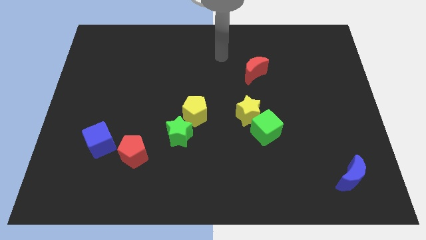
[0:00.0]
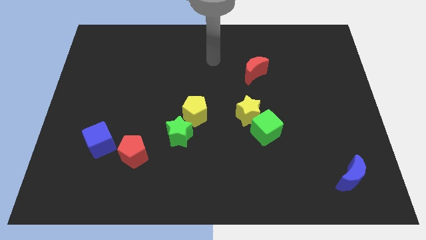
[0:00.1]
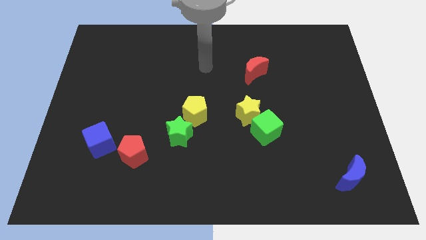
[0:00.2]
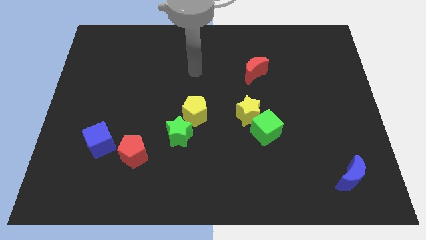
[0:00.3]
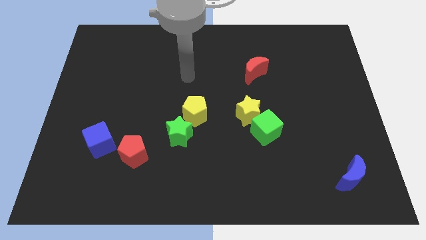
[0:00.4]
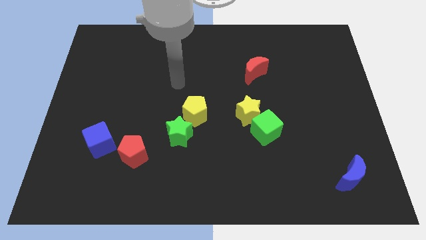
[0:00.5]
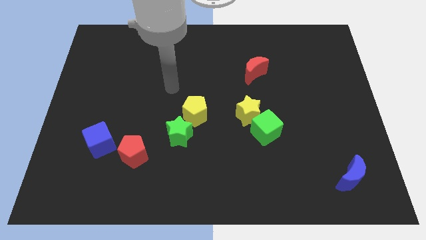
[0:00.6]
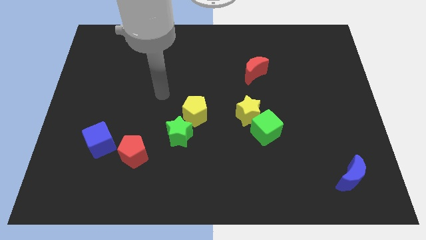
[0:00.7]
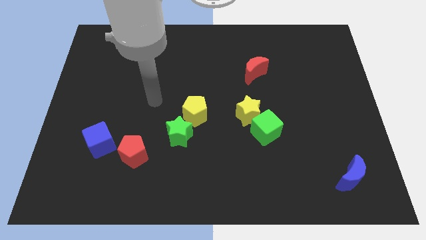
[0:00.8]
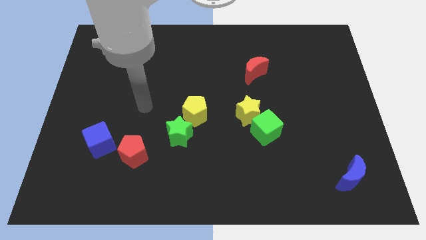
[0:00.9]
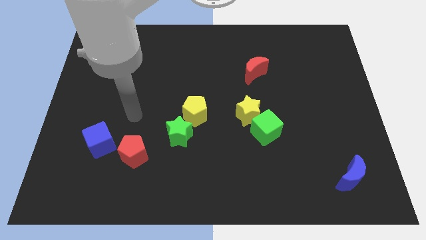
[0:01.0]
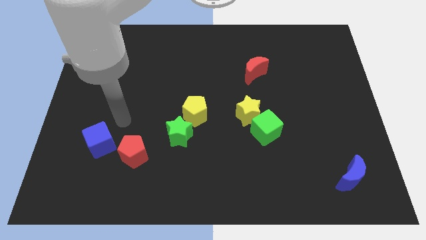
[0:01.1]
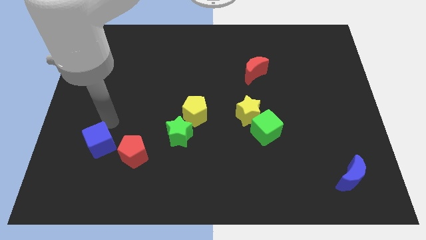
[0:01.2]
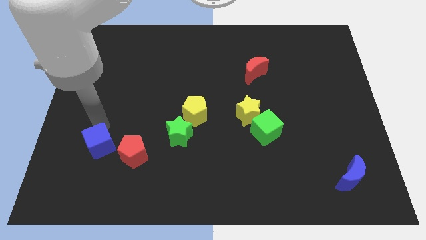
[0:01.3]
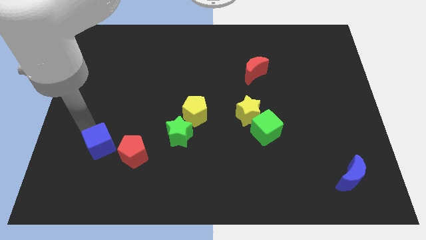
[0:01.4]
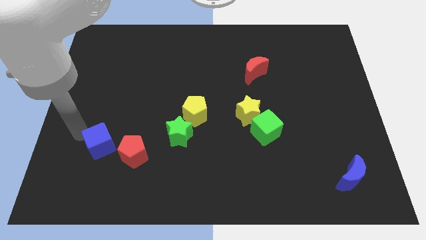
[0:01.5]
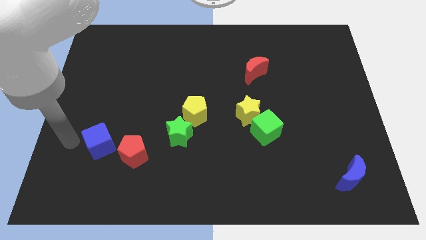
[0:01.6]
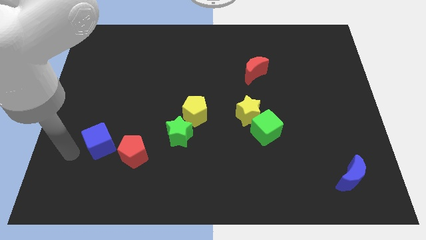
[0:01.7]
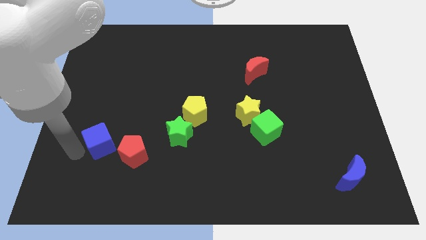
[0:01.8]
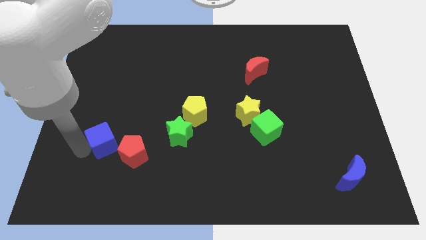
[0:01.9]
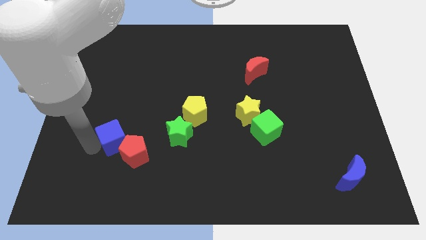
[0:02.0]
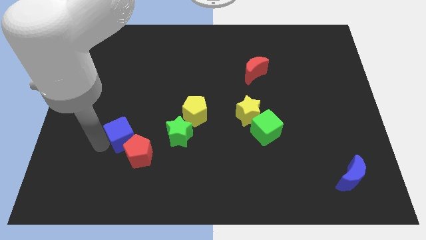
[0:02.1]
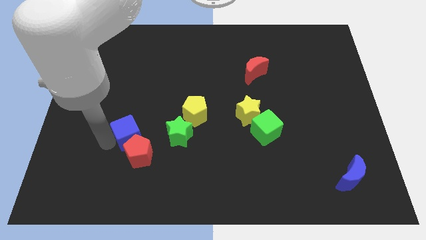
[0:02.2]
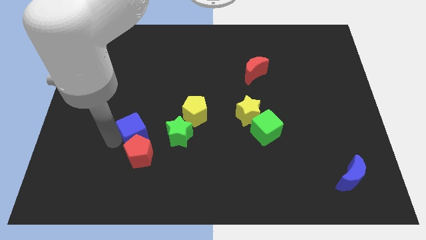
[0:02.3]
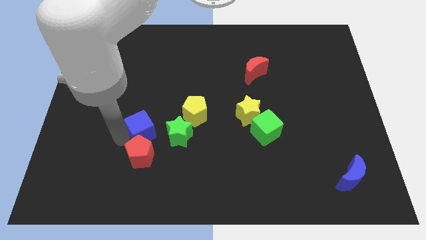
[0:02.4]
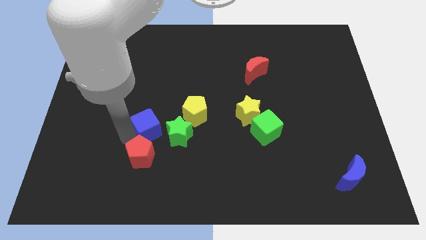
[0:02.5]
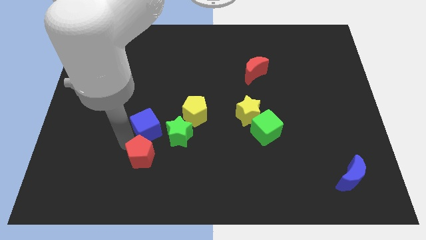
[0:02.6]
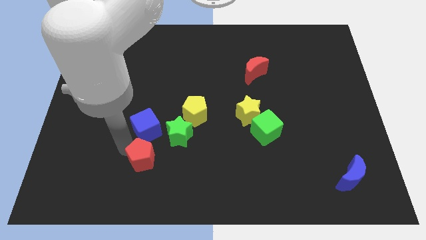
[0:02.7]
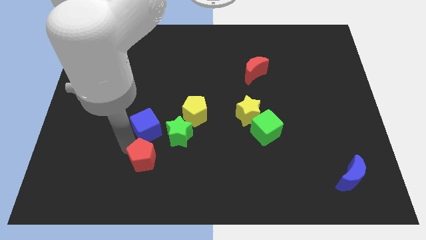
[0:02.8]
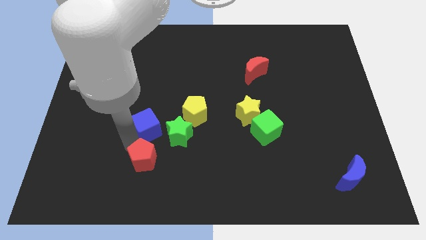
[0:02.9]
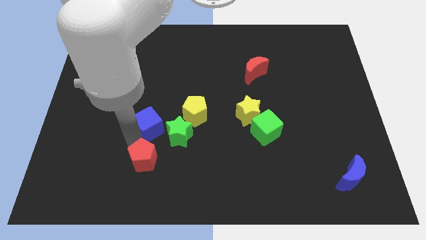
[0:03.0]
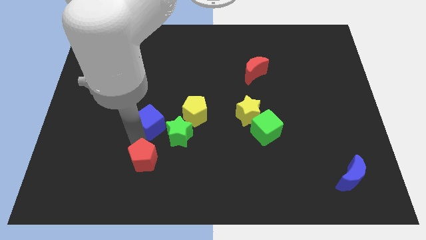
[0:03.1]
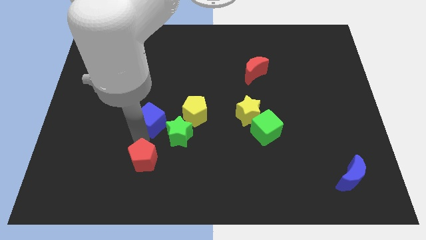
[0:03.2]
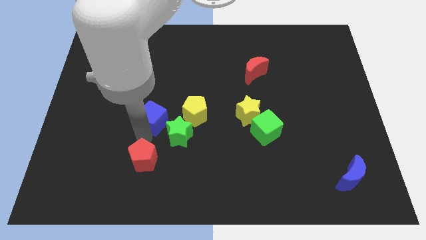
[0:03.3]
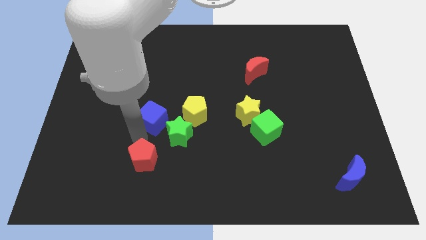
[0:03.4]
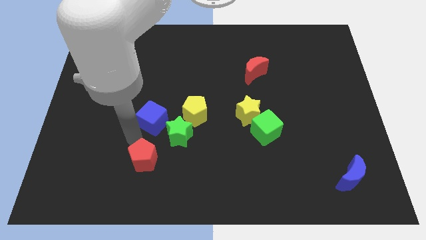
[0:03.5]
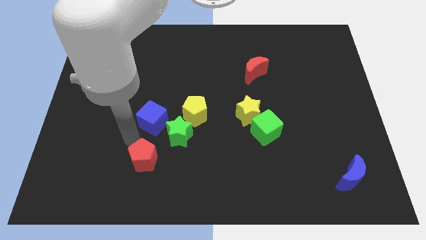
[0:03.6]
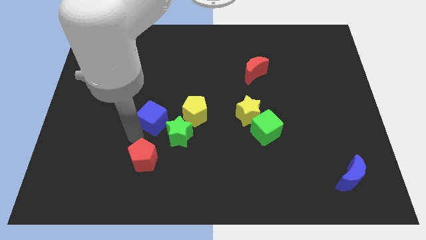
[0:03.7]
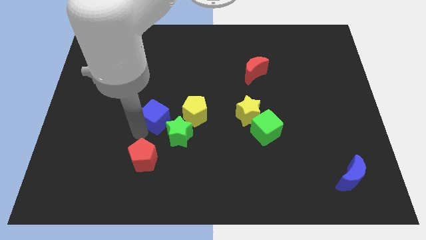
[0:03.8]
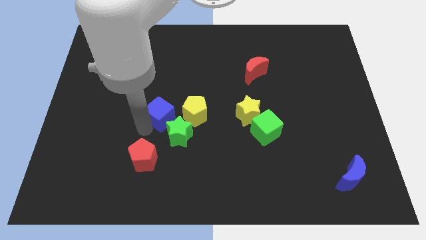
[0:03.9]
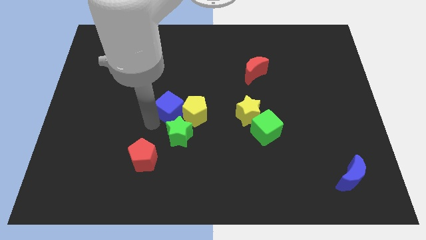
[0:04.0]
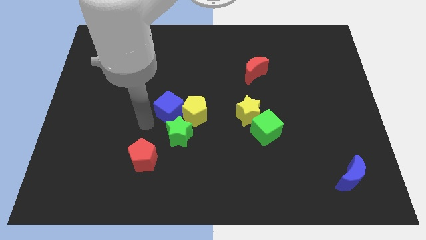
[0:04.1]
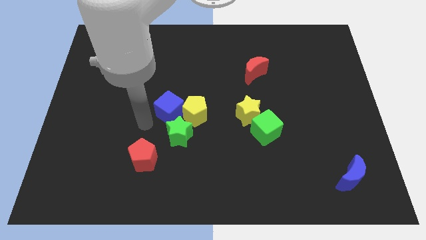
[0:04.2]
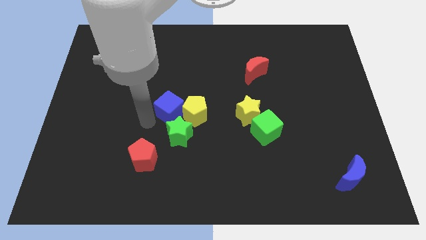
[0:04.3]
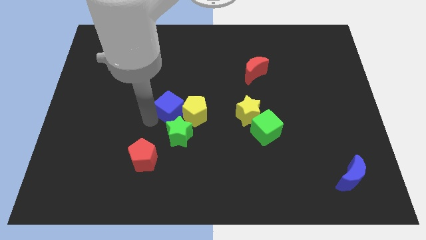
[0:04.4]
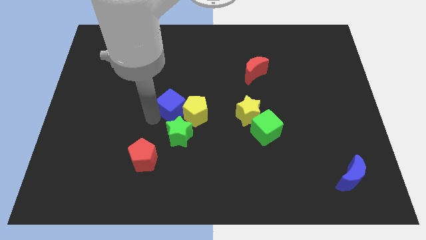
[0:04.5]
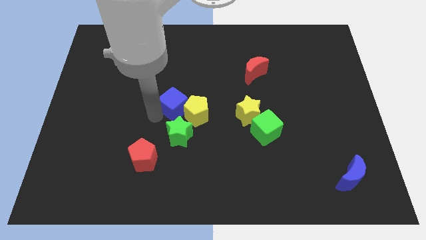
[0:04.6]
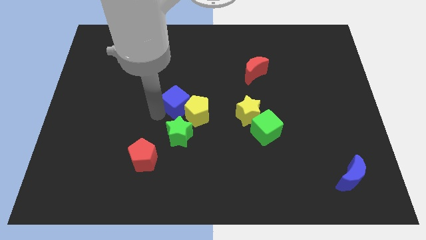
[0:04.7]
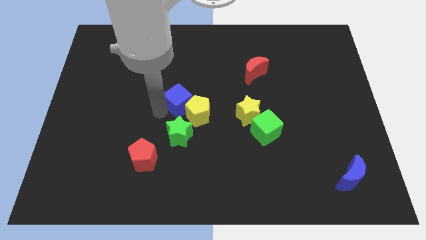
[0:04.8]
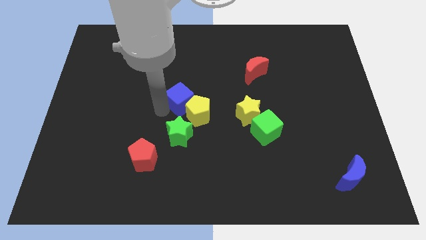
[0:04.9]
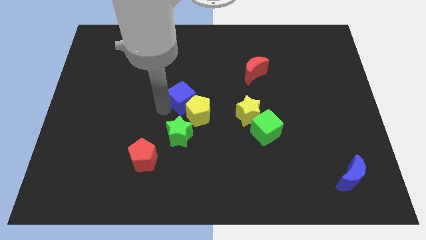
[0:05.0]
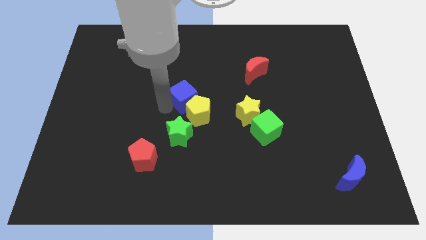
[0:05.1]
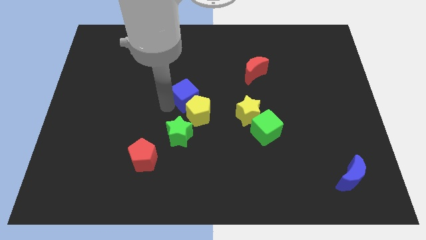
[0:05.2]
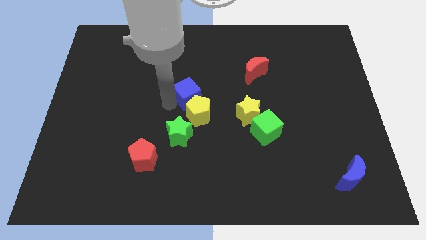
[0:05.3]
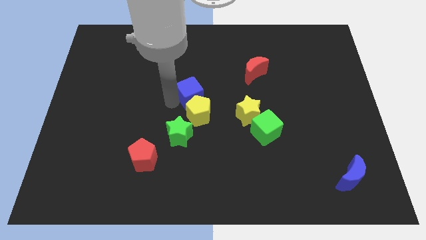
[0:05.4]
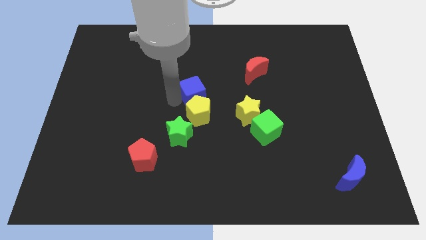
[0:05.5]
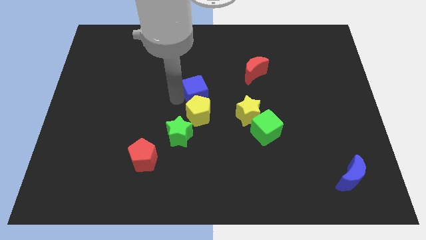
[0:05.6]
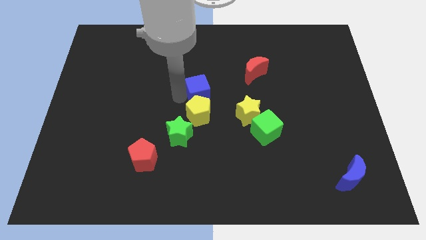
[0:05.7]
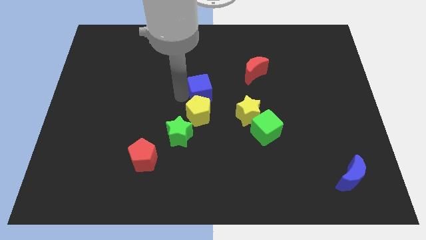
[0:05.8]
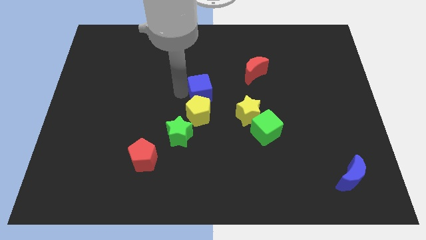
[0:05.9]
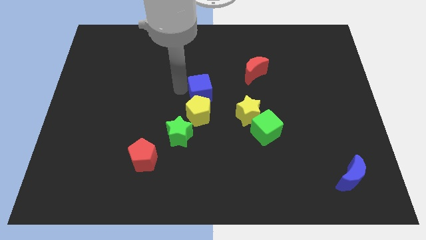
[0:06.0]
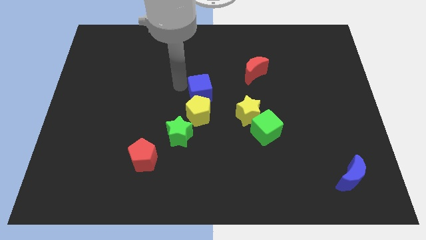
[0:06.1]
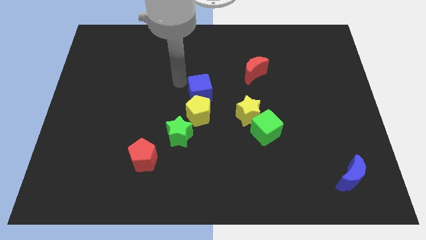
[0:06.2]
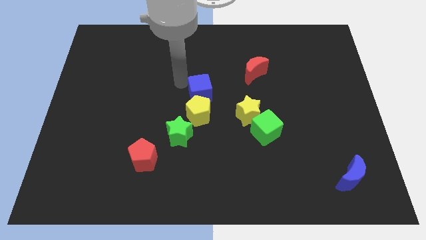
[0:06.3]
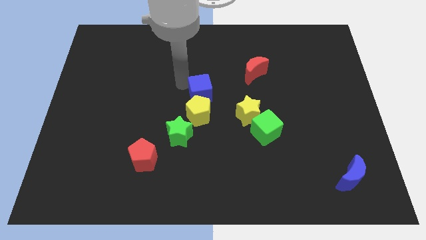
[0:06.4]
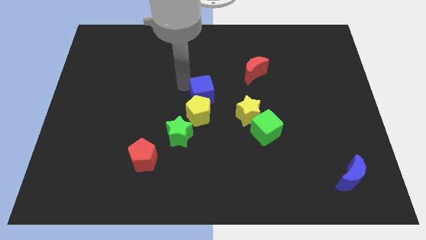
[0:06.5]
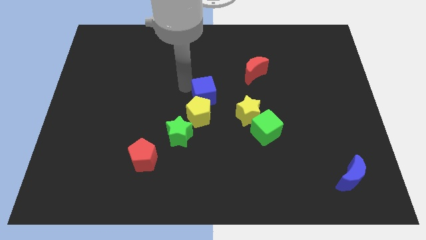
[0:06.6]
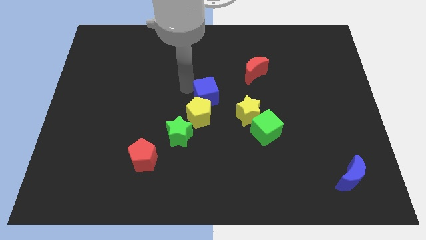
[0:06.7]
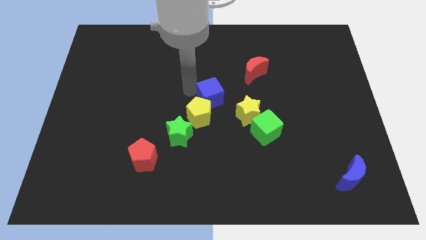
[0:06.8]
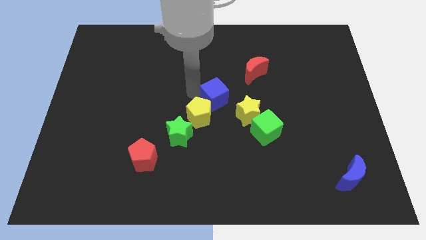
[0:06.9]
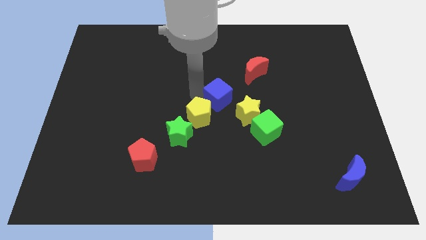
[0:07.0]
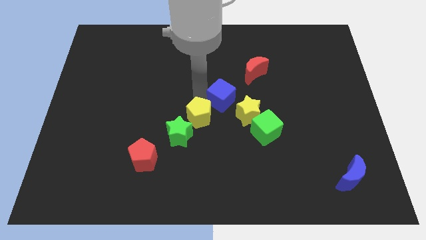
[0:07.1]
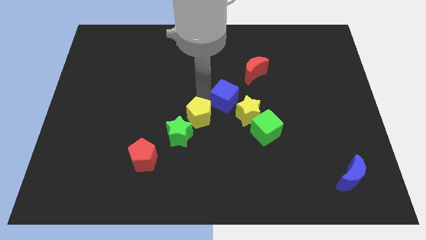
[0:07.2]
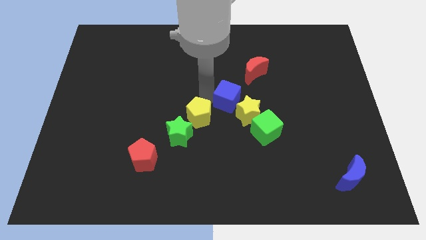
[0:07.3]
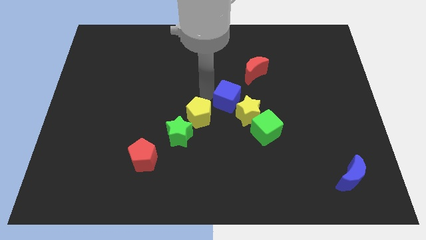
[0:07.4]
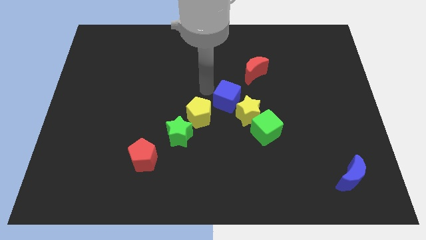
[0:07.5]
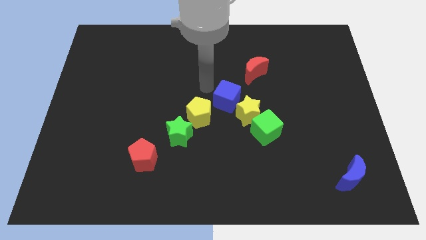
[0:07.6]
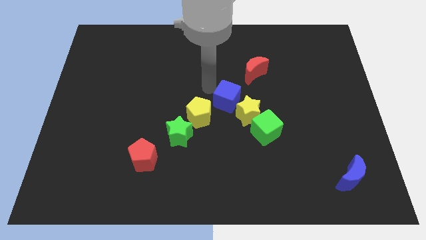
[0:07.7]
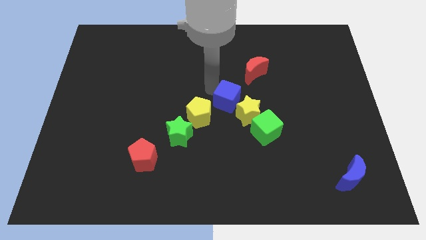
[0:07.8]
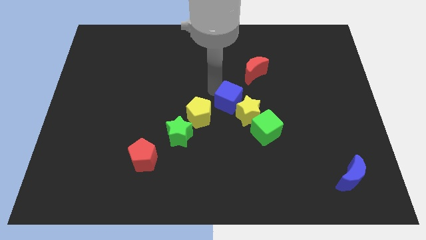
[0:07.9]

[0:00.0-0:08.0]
put the blue cube to the yellow star

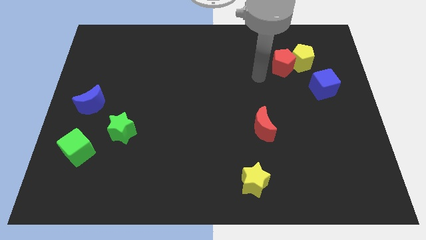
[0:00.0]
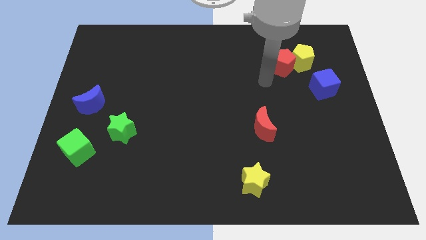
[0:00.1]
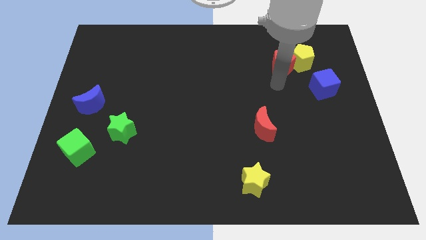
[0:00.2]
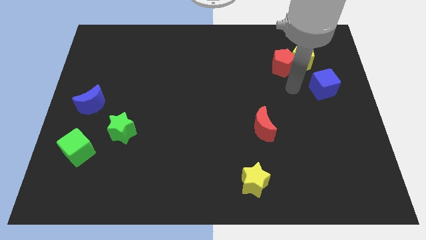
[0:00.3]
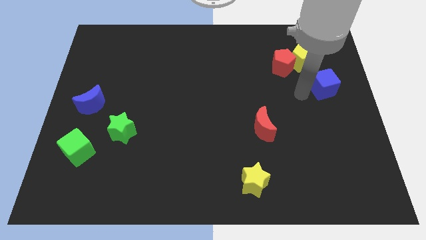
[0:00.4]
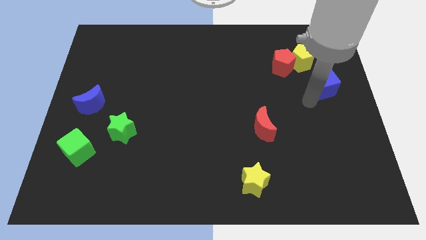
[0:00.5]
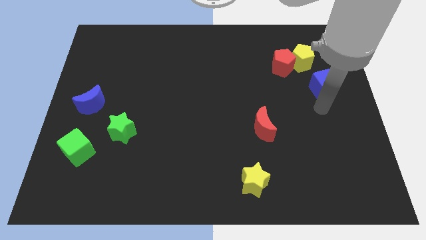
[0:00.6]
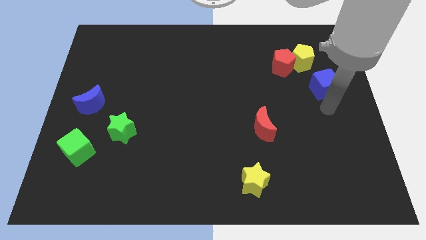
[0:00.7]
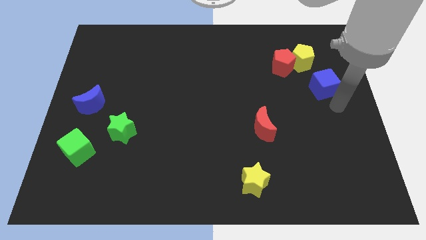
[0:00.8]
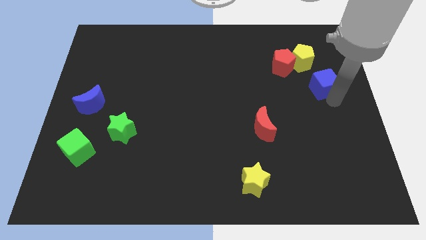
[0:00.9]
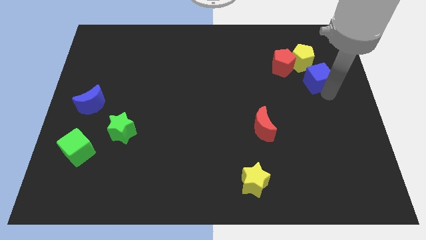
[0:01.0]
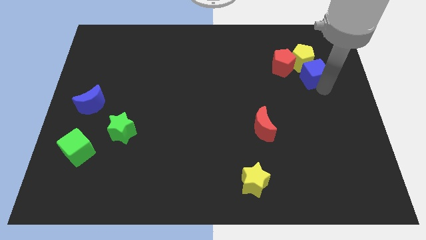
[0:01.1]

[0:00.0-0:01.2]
slide the blue cube next to the yellow pentagon
